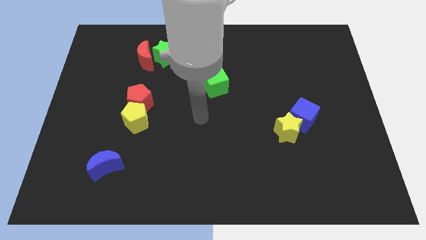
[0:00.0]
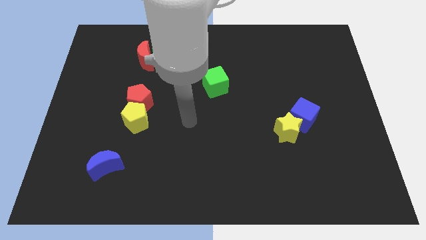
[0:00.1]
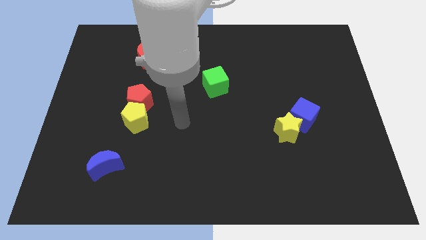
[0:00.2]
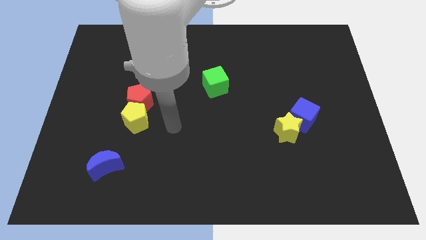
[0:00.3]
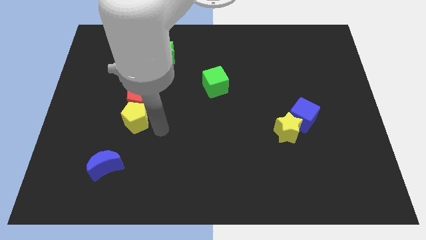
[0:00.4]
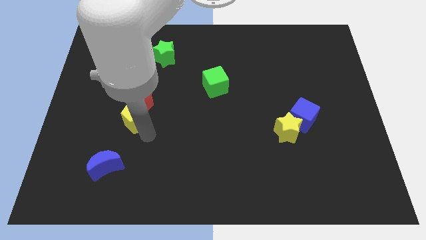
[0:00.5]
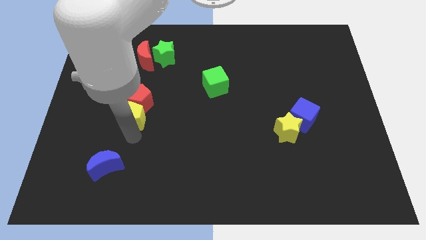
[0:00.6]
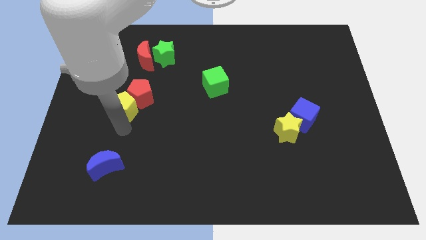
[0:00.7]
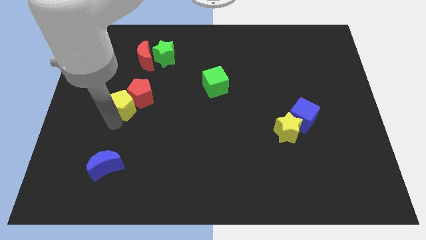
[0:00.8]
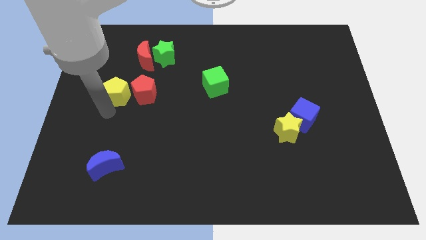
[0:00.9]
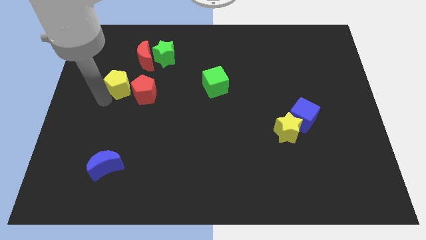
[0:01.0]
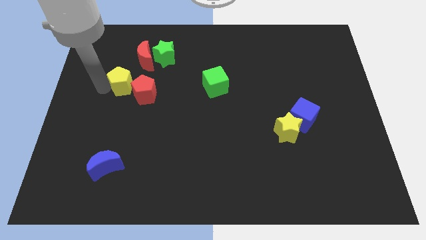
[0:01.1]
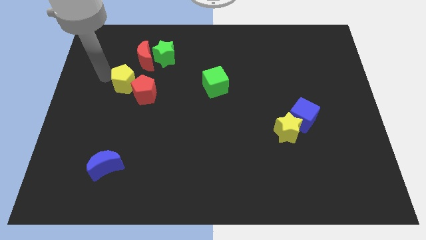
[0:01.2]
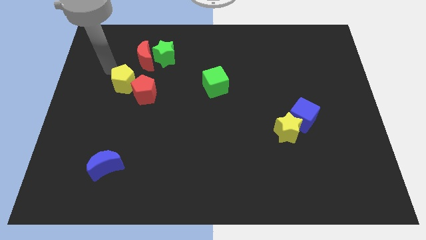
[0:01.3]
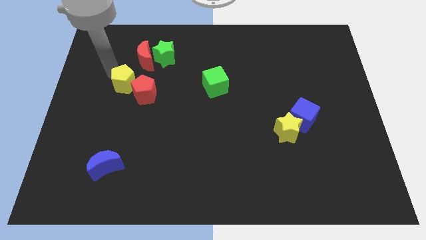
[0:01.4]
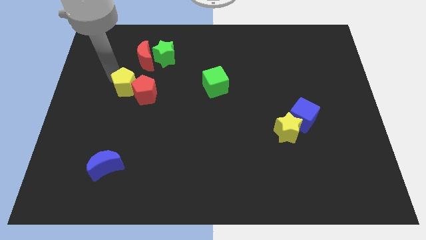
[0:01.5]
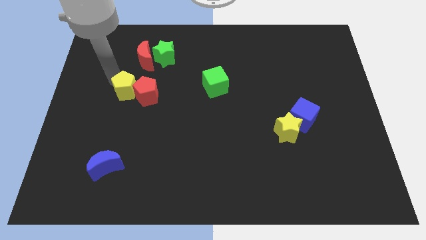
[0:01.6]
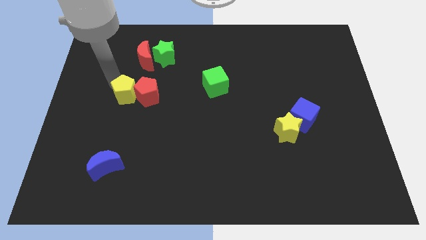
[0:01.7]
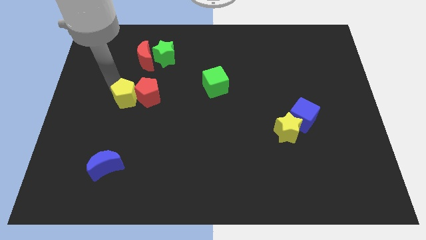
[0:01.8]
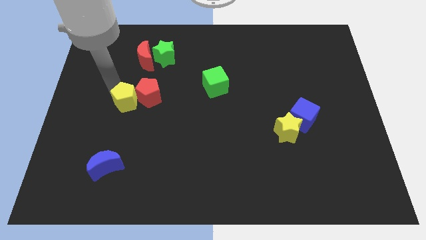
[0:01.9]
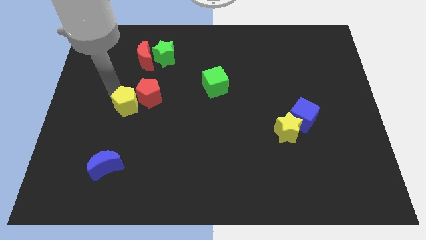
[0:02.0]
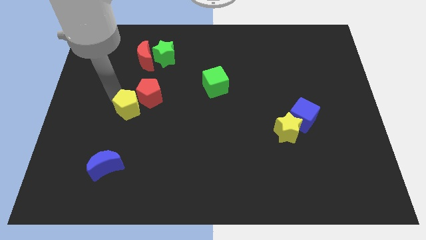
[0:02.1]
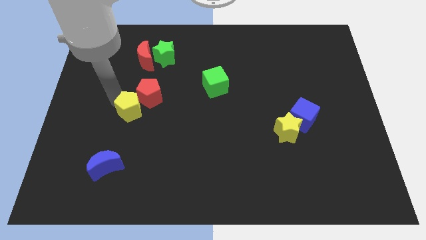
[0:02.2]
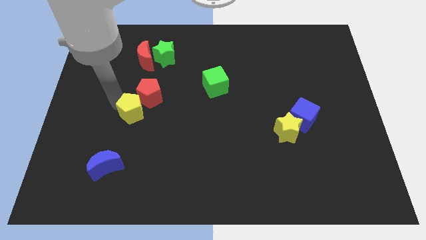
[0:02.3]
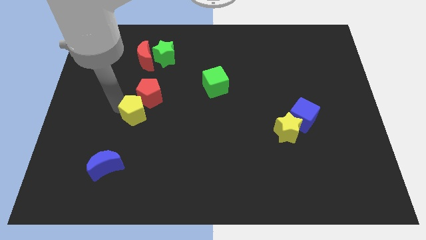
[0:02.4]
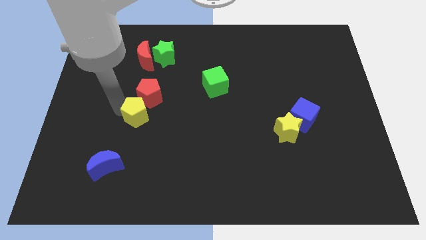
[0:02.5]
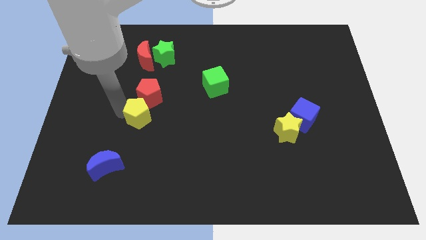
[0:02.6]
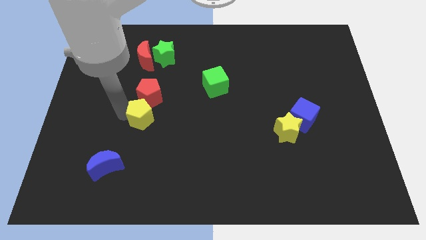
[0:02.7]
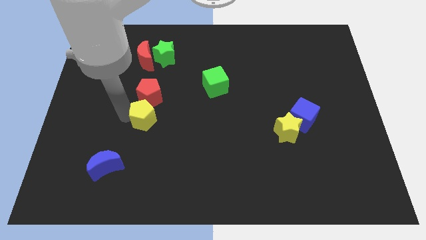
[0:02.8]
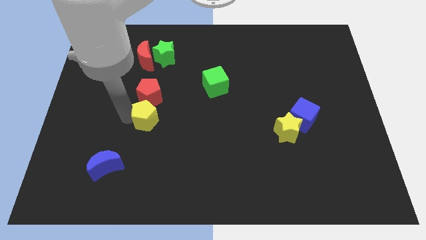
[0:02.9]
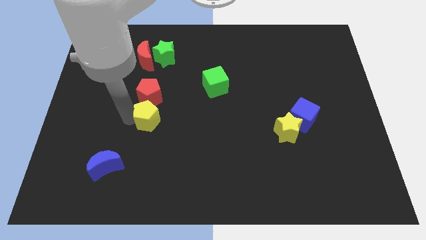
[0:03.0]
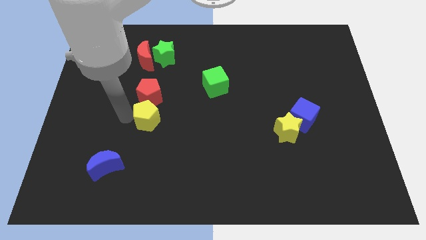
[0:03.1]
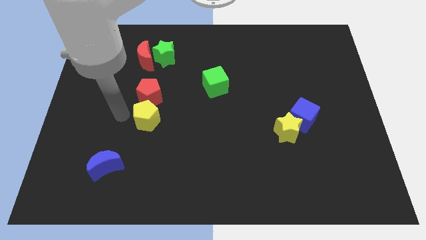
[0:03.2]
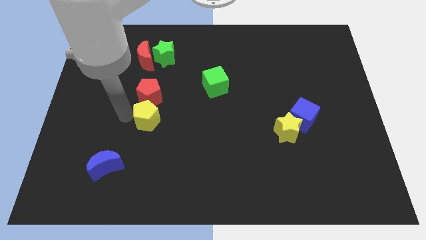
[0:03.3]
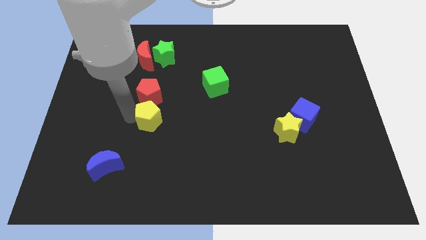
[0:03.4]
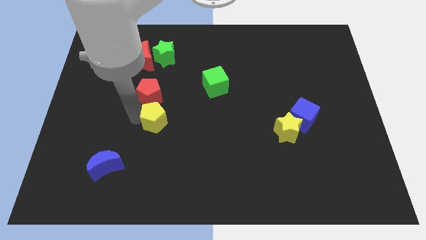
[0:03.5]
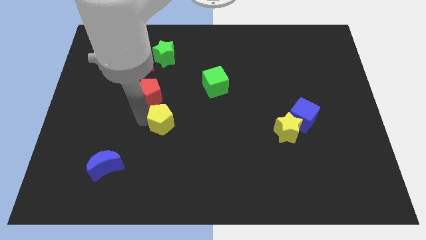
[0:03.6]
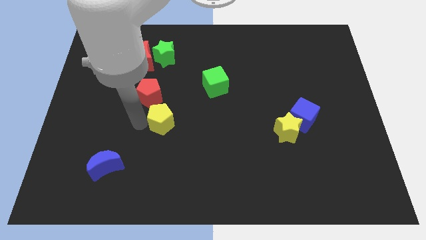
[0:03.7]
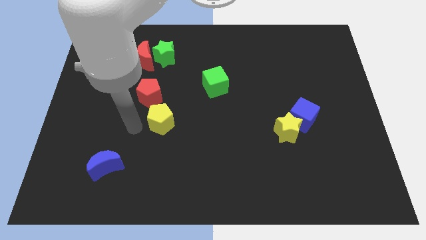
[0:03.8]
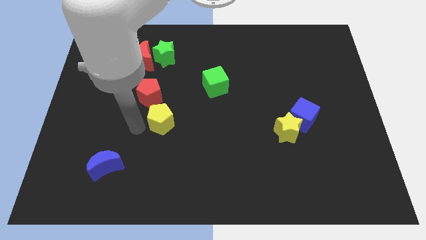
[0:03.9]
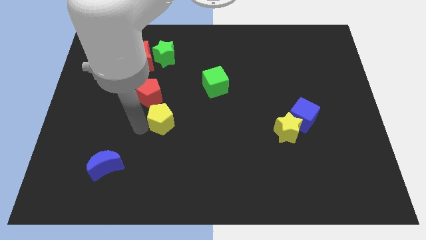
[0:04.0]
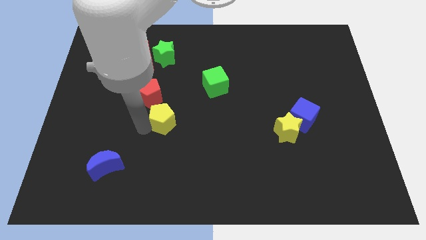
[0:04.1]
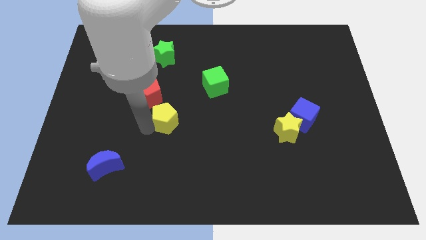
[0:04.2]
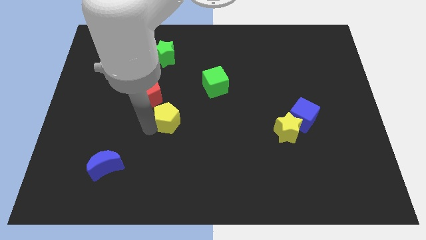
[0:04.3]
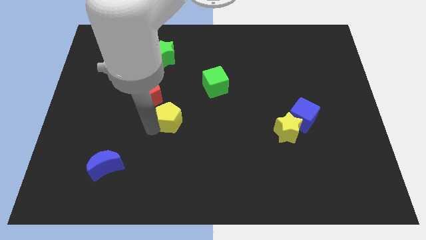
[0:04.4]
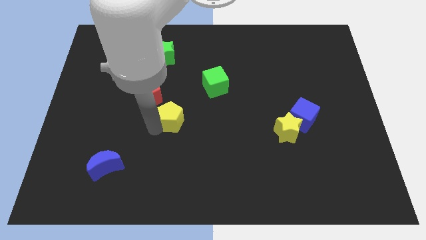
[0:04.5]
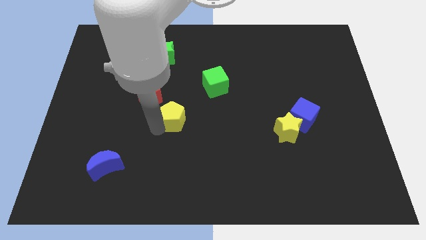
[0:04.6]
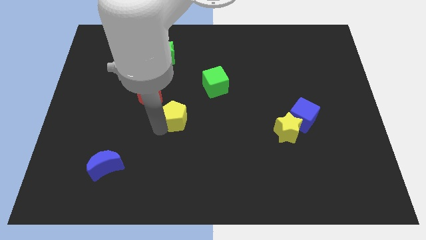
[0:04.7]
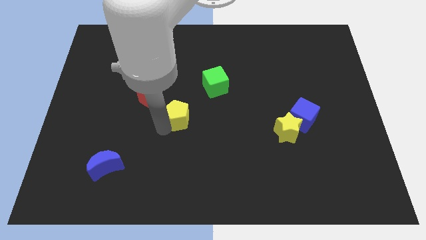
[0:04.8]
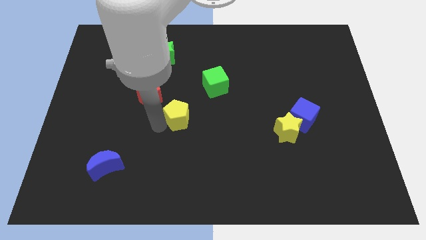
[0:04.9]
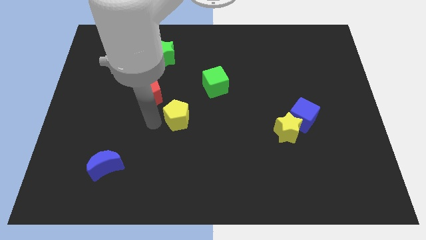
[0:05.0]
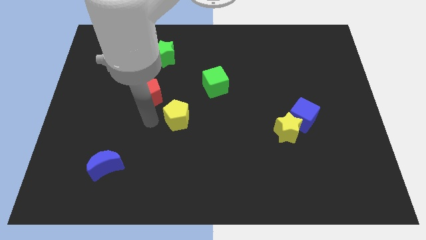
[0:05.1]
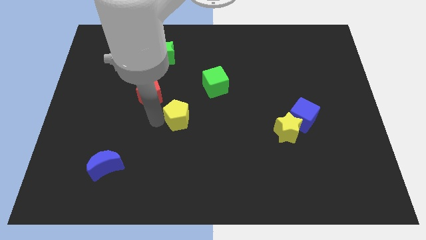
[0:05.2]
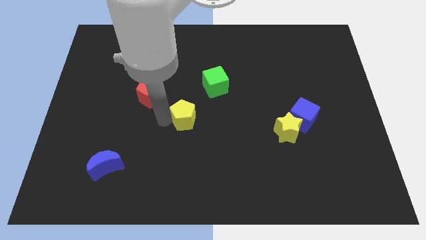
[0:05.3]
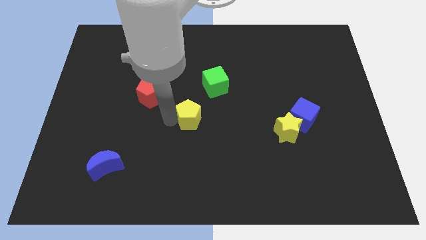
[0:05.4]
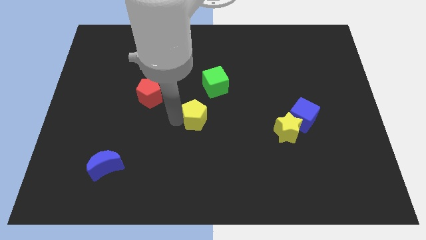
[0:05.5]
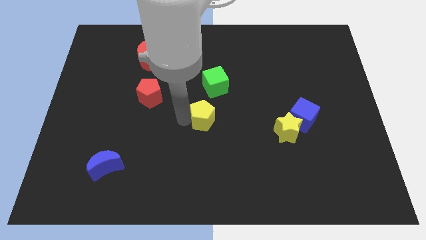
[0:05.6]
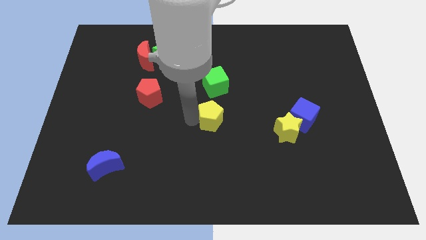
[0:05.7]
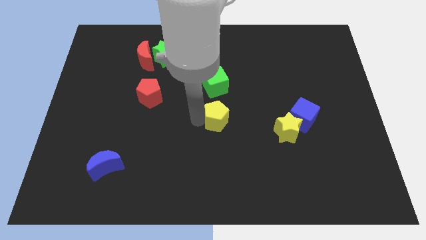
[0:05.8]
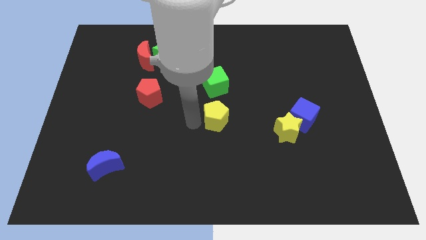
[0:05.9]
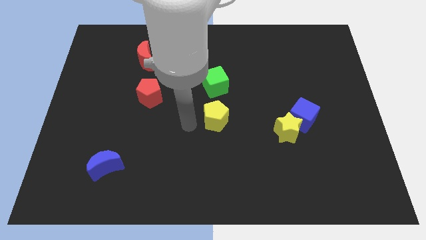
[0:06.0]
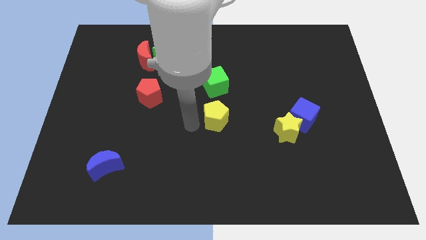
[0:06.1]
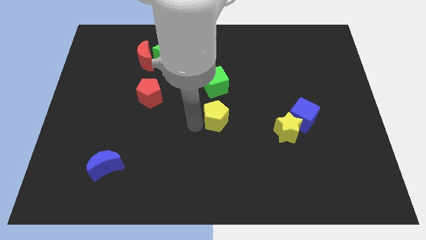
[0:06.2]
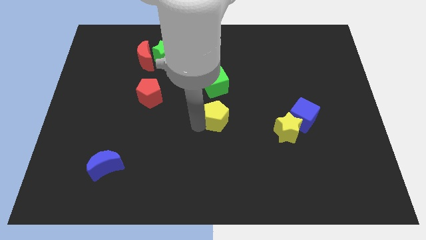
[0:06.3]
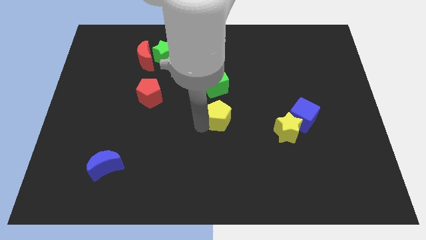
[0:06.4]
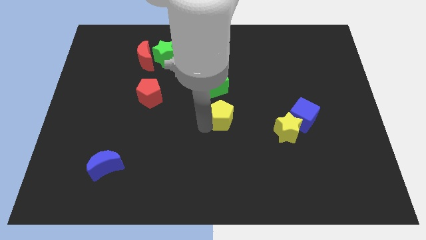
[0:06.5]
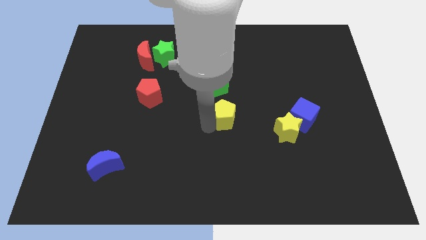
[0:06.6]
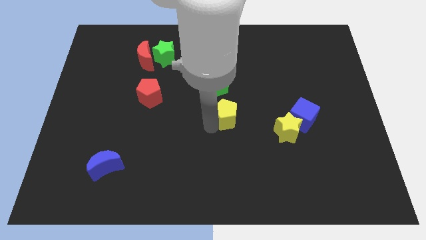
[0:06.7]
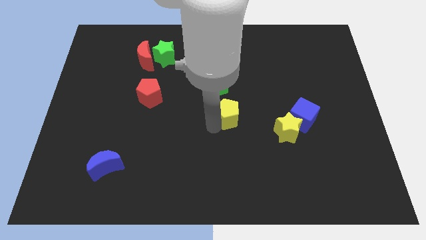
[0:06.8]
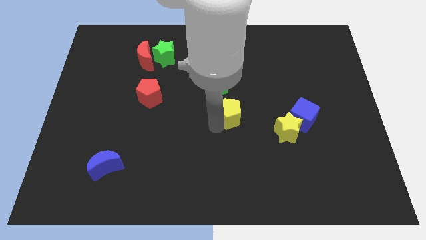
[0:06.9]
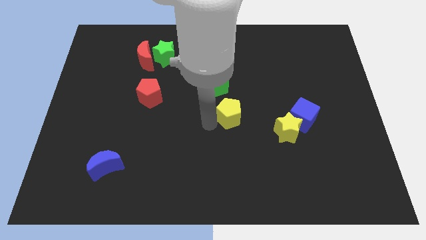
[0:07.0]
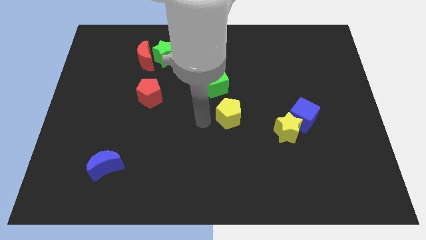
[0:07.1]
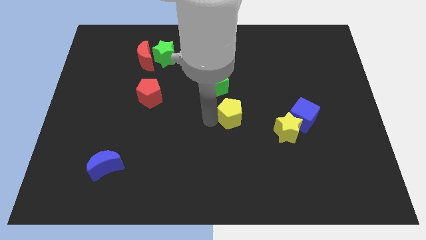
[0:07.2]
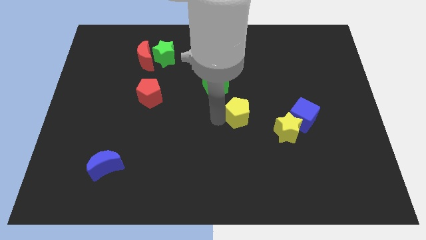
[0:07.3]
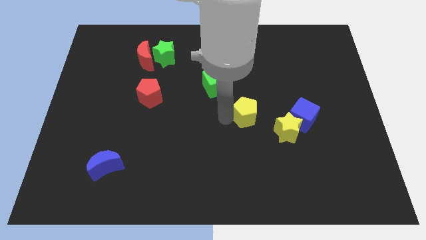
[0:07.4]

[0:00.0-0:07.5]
push the yellow pentagon to the top left of the yellow star
